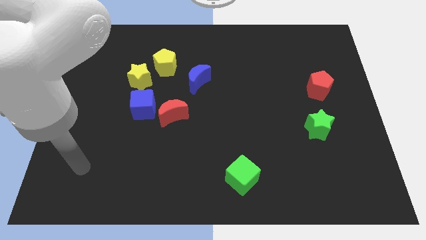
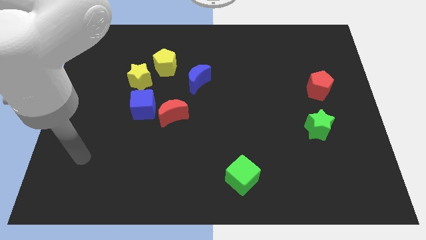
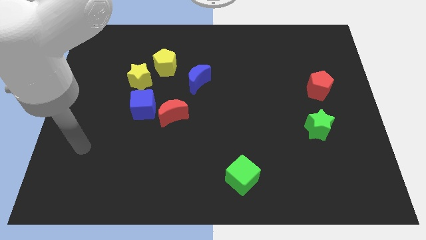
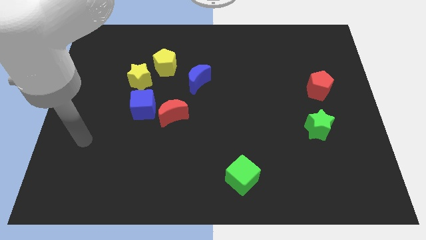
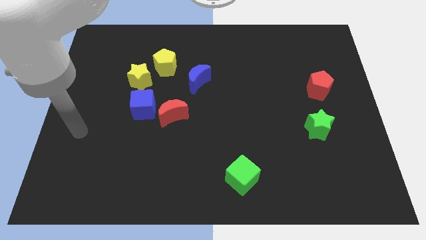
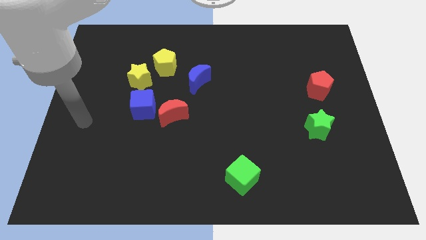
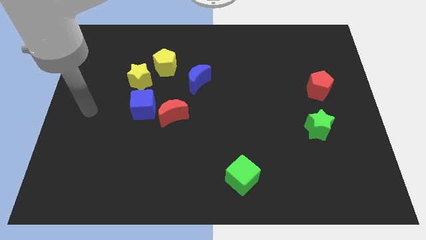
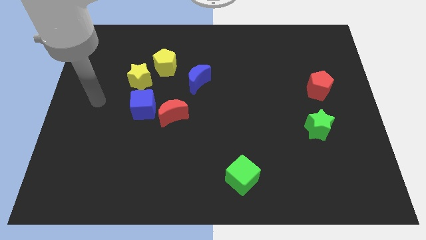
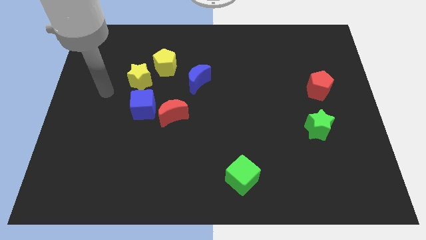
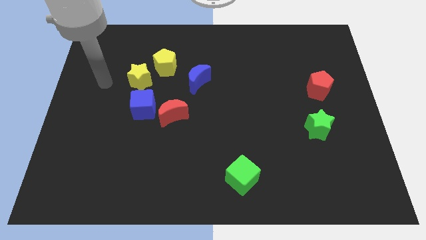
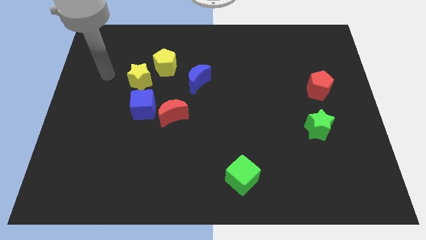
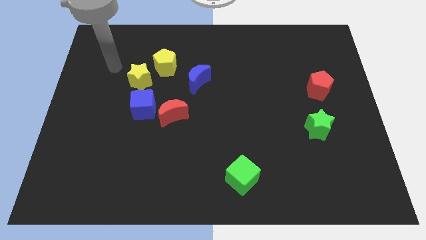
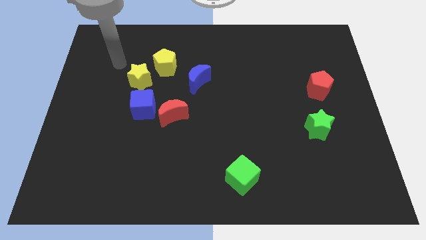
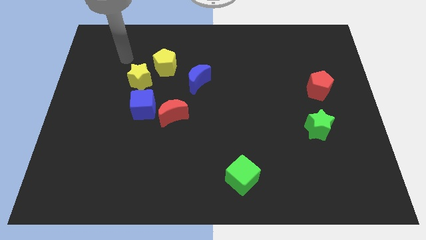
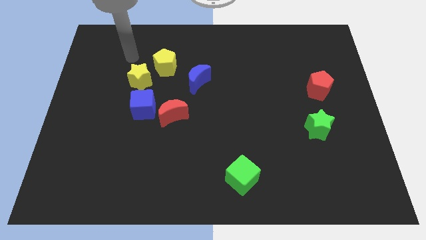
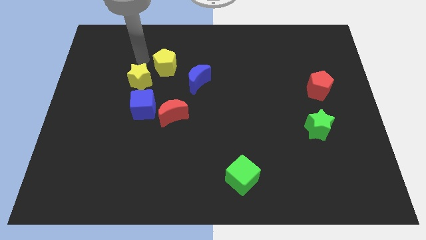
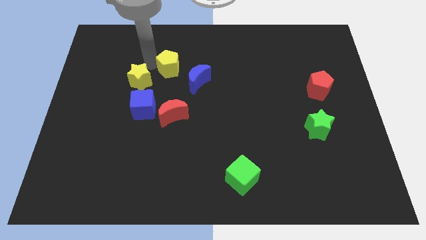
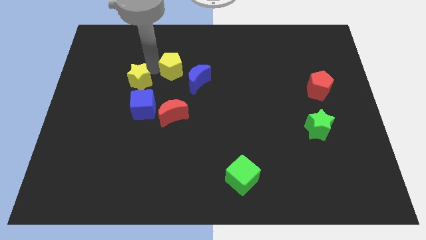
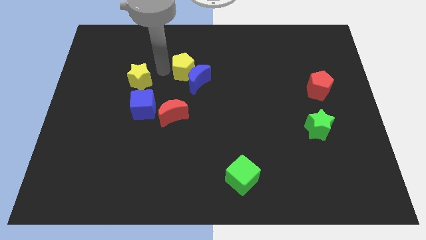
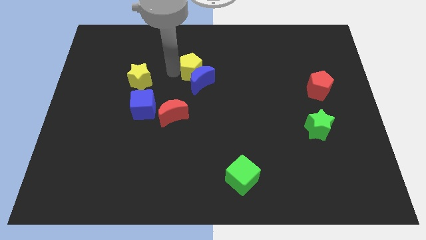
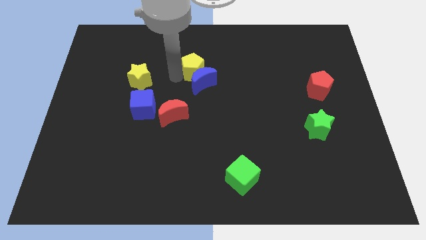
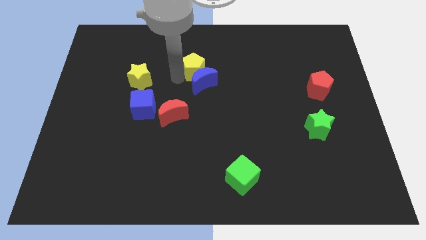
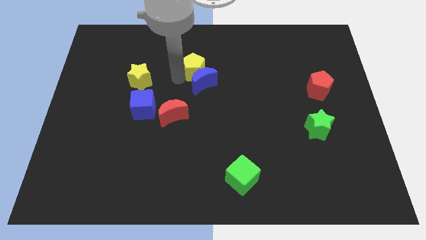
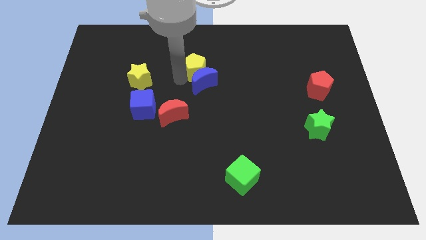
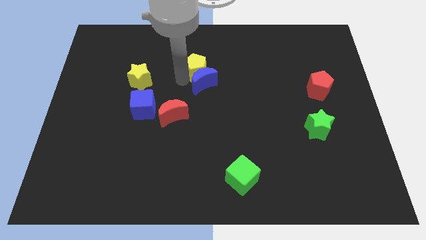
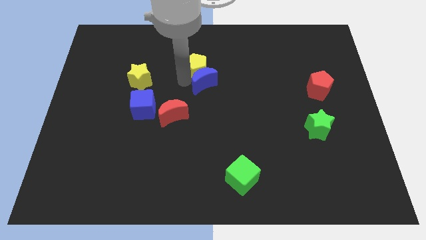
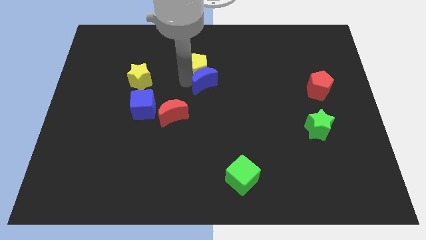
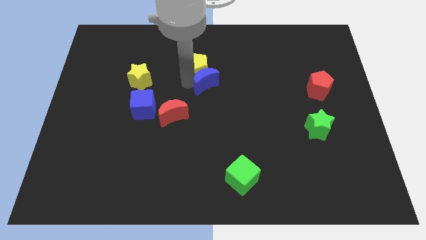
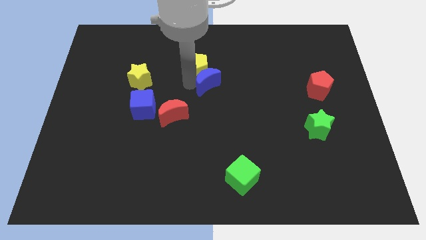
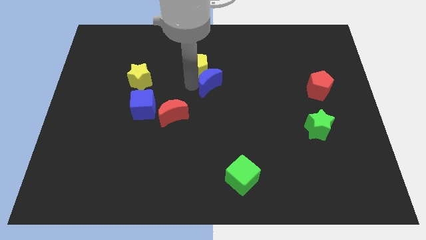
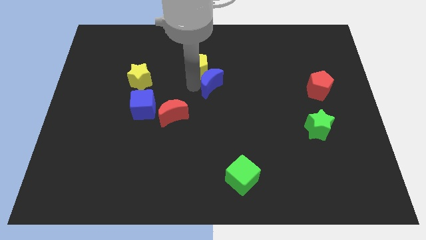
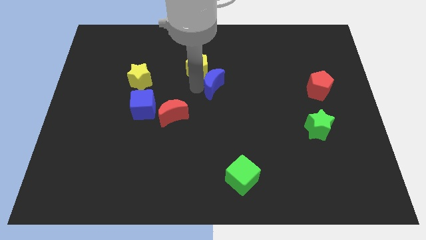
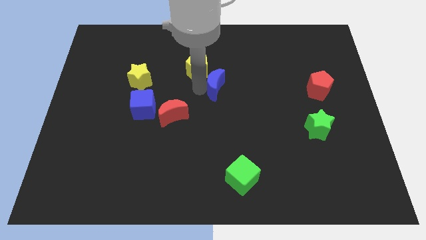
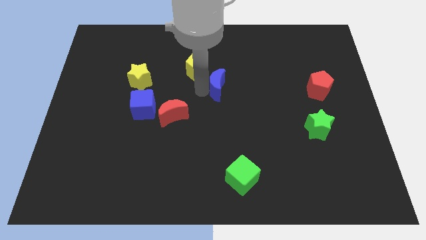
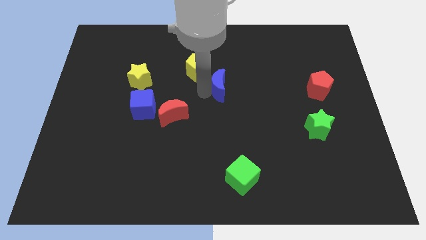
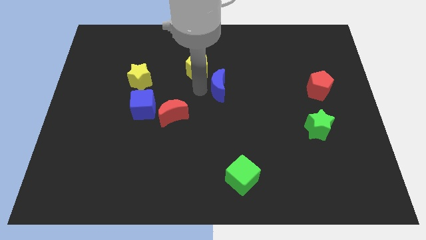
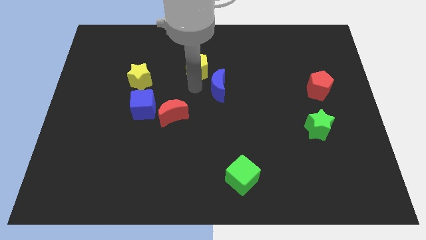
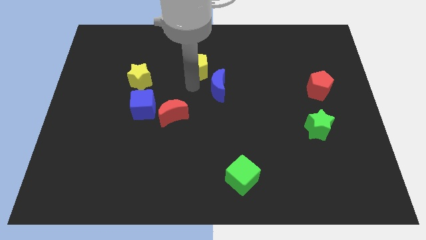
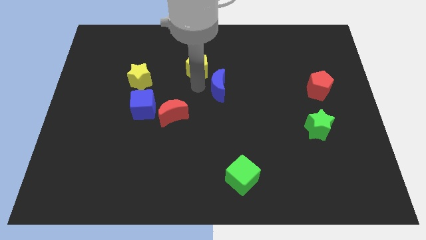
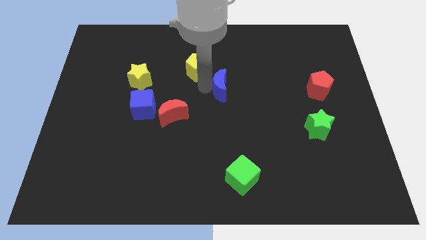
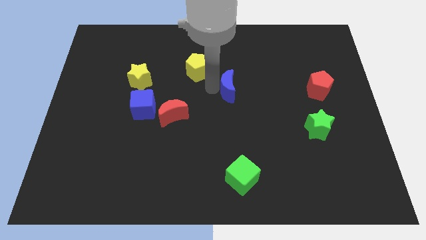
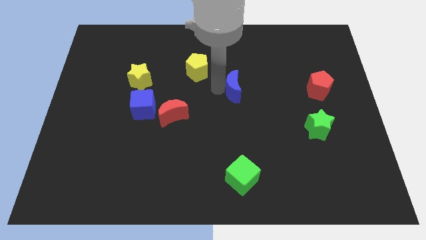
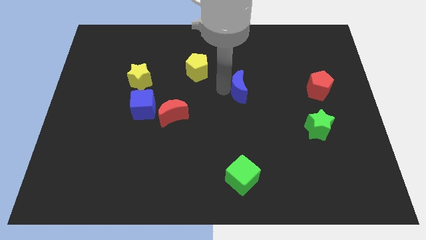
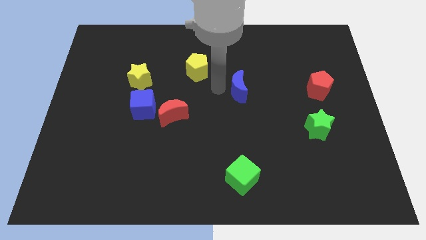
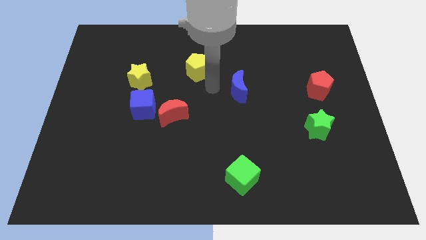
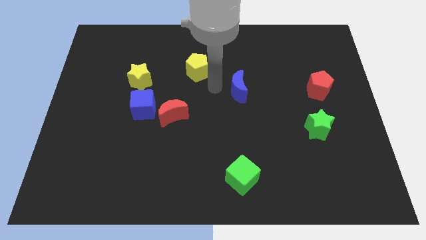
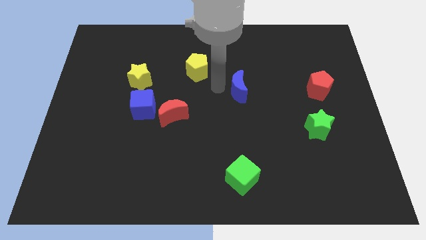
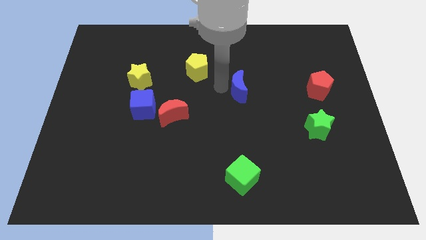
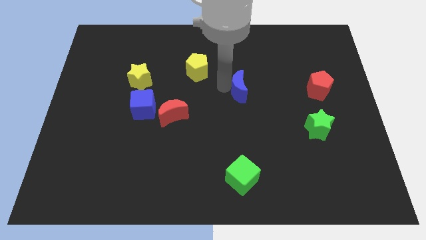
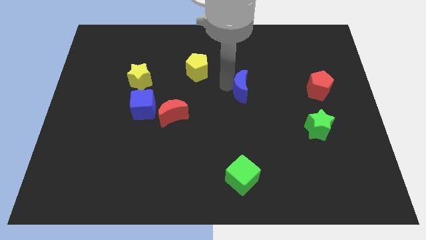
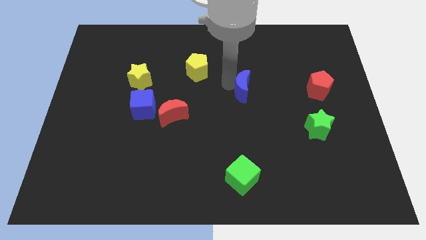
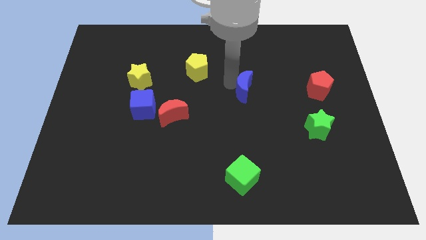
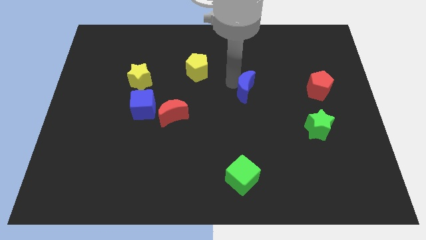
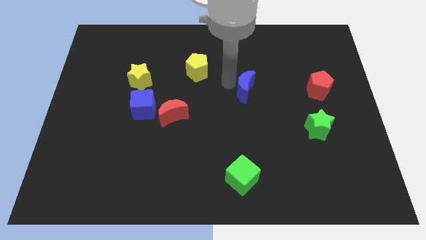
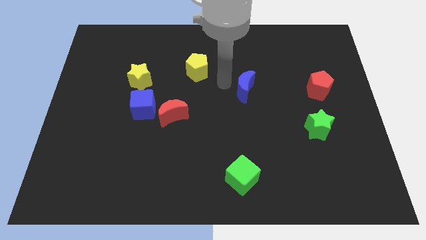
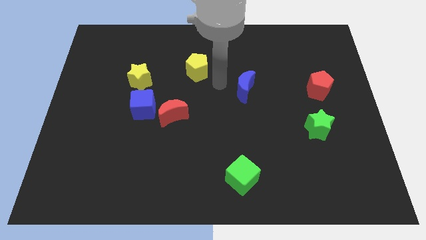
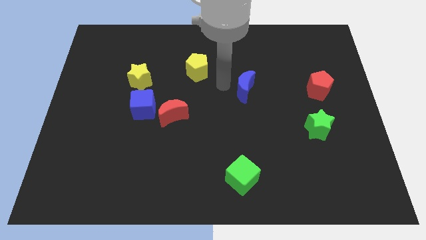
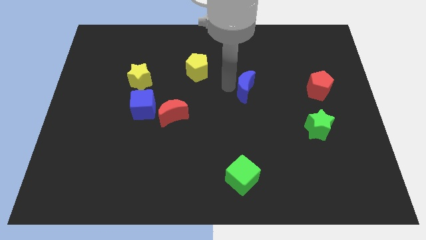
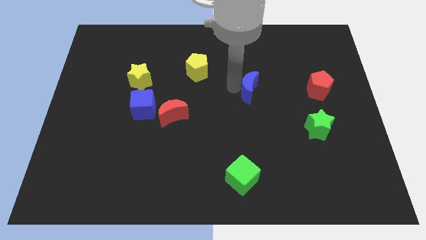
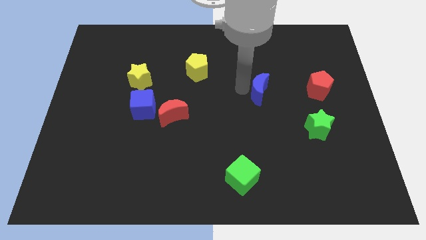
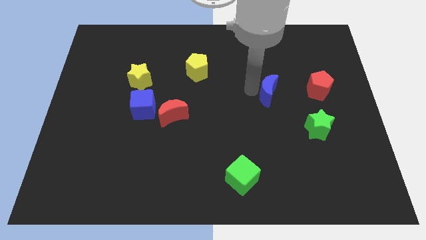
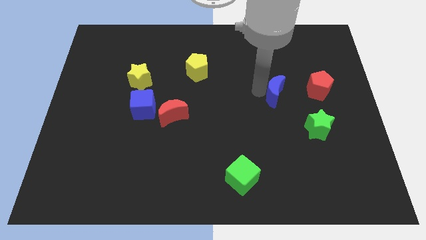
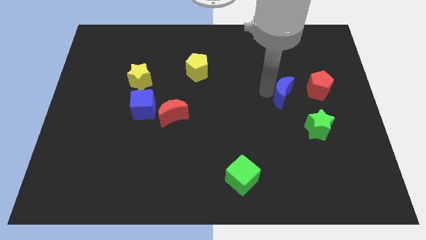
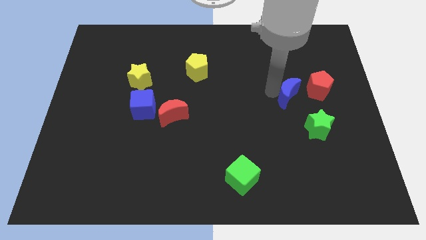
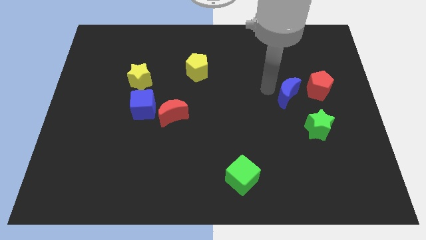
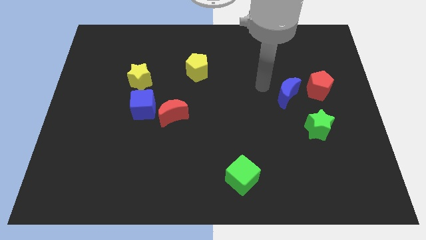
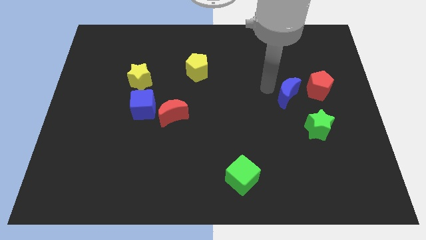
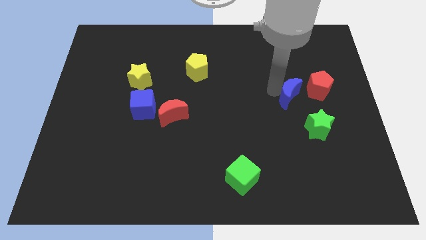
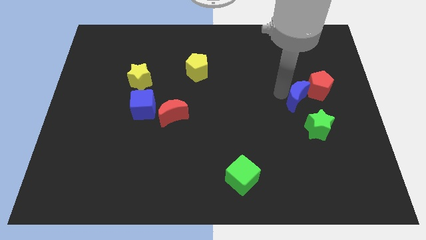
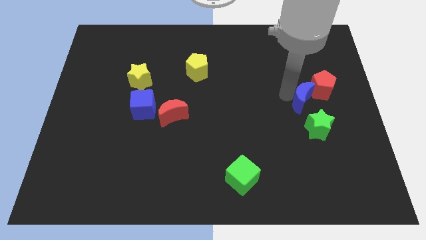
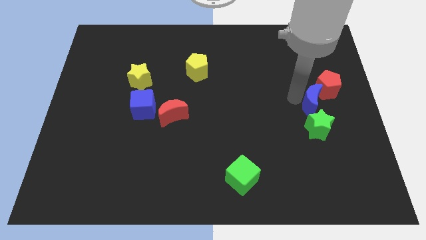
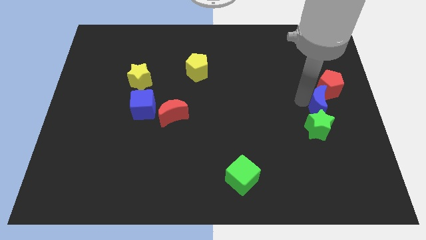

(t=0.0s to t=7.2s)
slide the blue moon diagonally up and to the right of the green star
